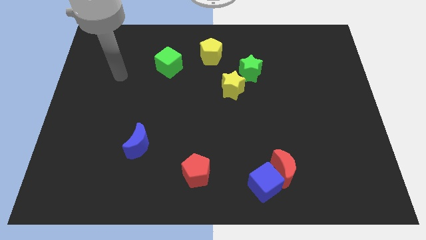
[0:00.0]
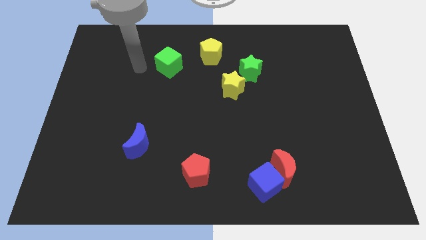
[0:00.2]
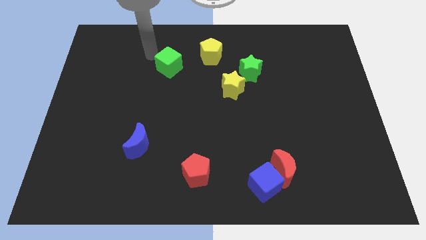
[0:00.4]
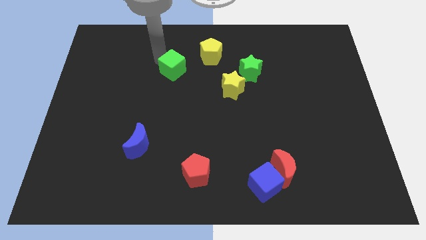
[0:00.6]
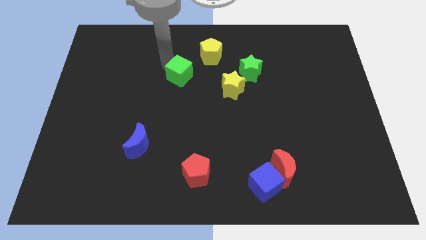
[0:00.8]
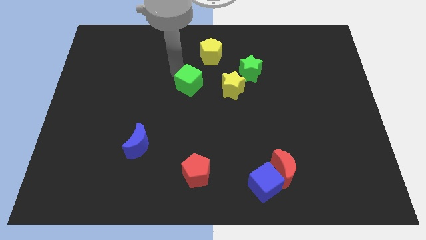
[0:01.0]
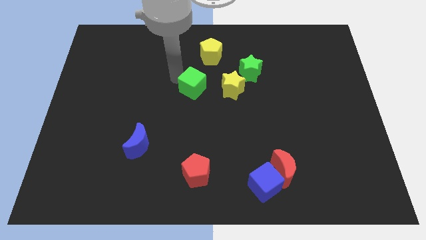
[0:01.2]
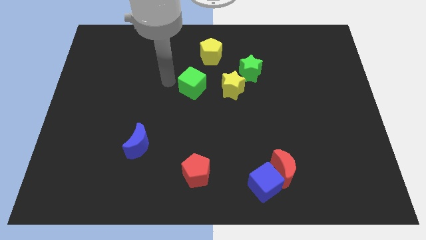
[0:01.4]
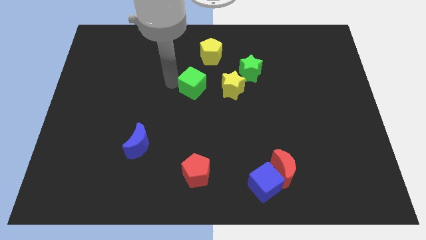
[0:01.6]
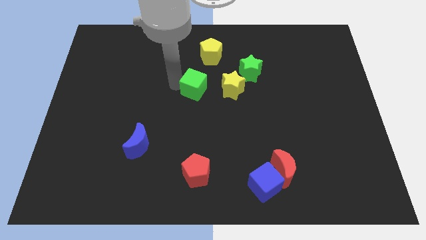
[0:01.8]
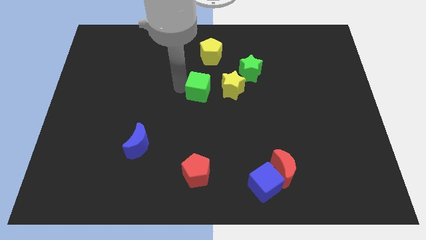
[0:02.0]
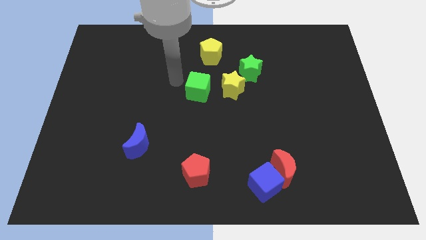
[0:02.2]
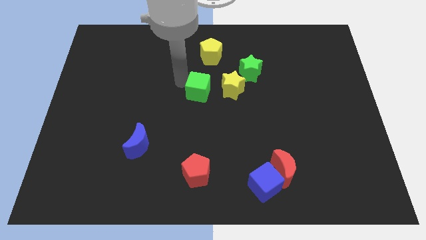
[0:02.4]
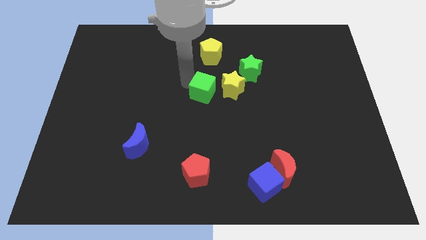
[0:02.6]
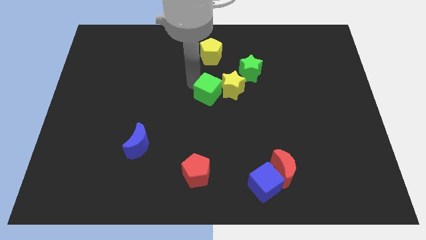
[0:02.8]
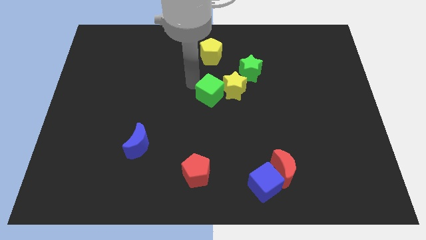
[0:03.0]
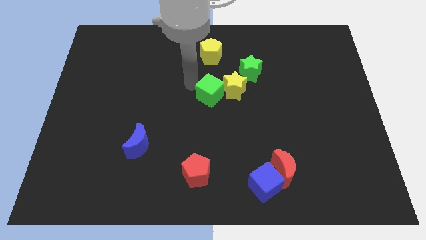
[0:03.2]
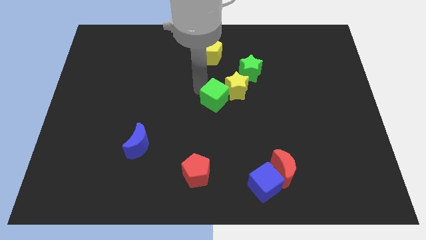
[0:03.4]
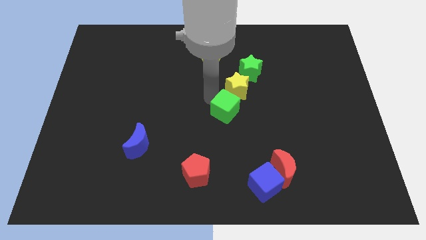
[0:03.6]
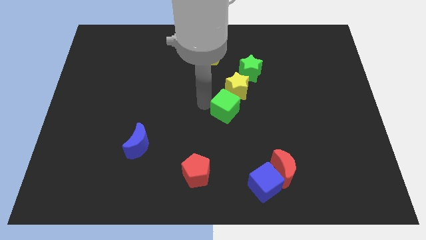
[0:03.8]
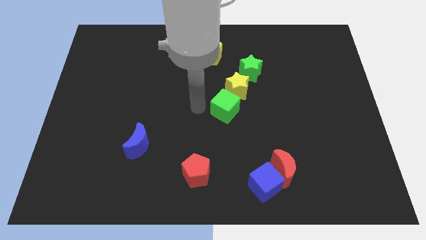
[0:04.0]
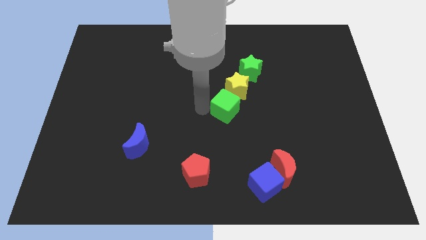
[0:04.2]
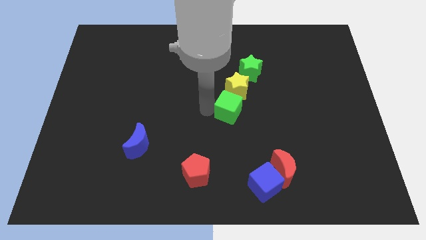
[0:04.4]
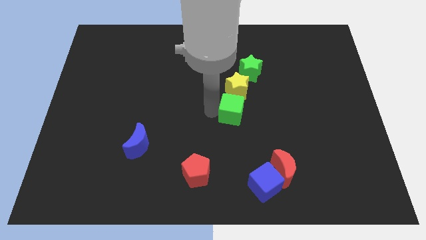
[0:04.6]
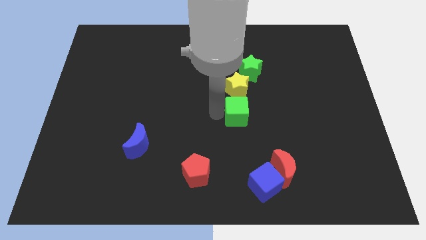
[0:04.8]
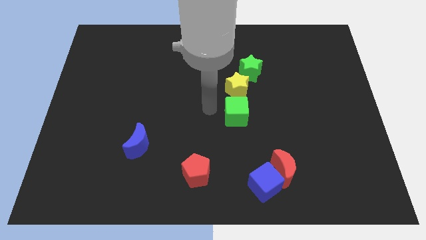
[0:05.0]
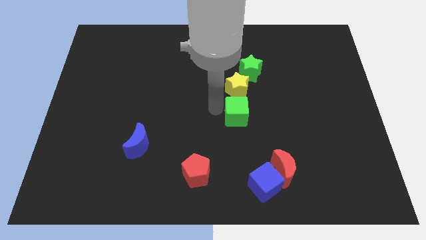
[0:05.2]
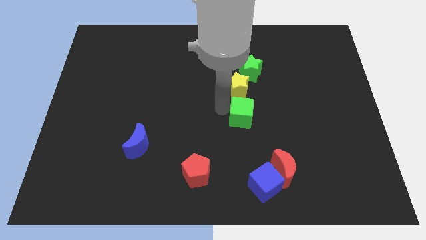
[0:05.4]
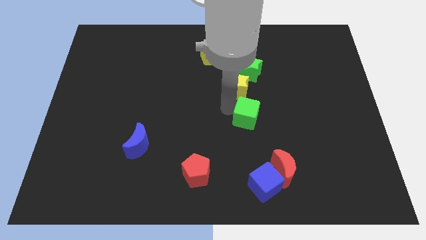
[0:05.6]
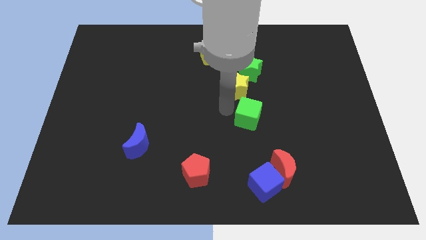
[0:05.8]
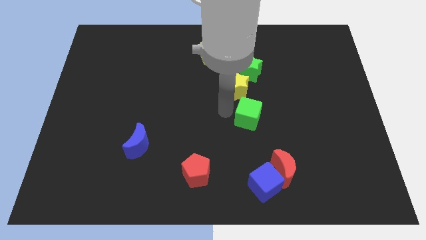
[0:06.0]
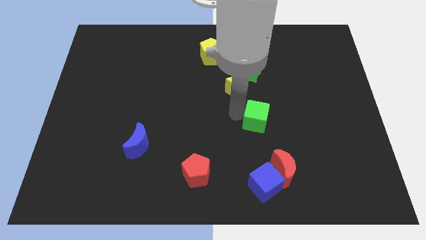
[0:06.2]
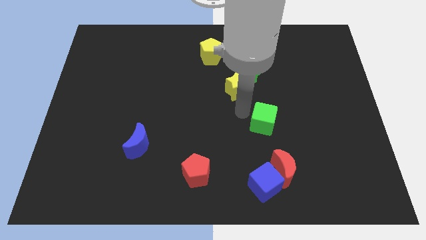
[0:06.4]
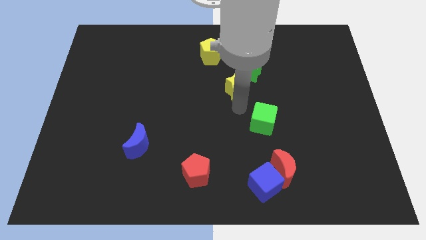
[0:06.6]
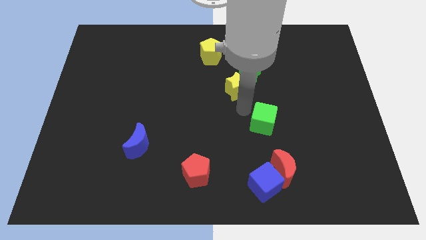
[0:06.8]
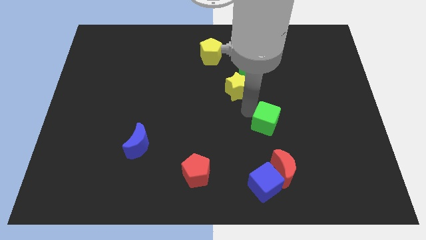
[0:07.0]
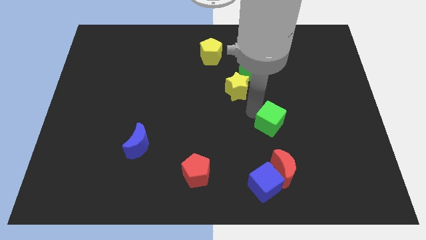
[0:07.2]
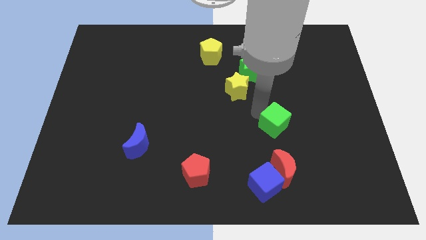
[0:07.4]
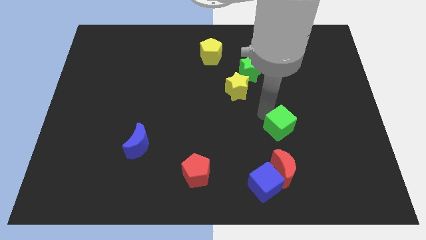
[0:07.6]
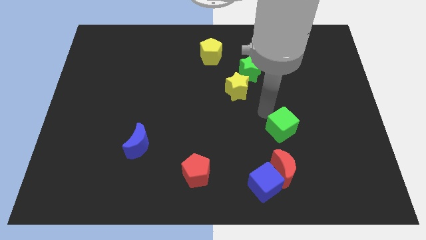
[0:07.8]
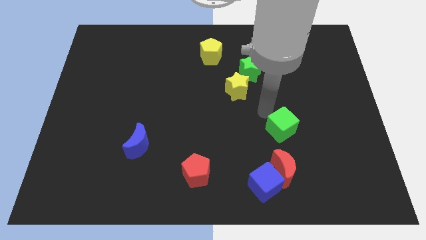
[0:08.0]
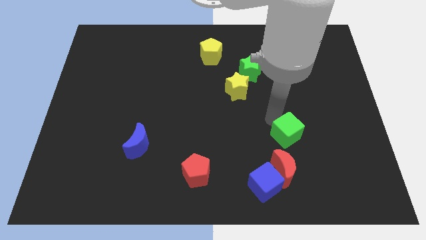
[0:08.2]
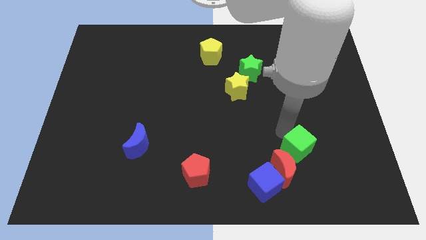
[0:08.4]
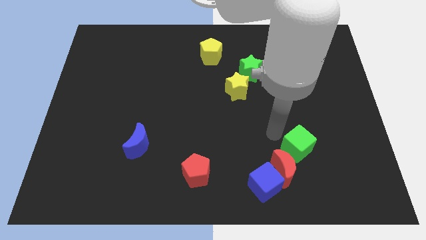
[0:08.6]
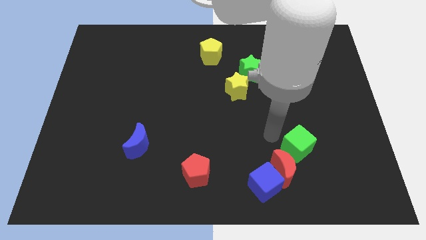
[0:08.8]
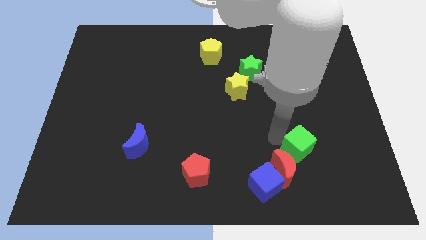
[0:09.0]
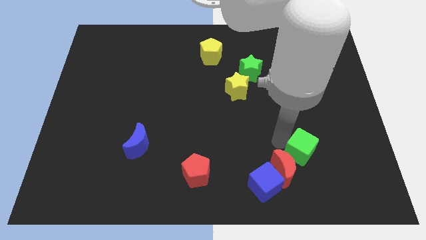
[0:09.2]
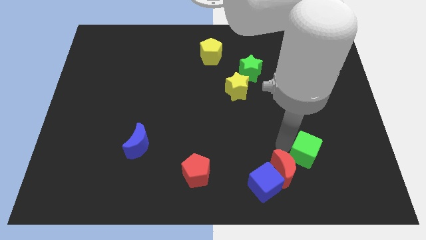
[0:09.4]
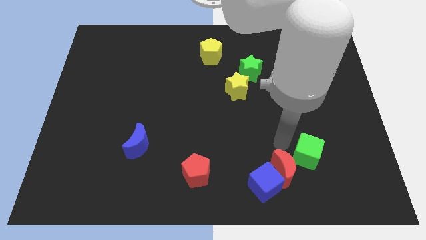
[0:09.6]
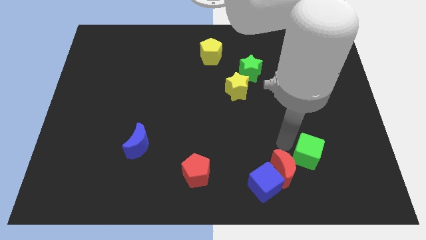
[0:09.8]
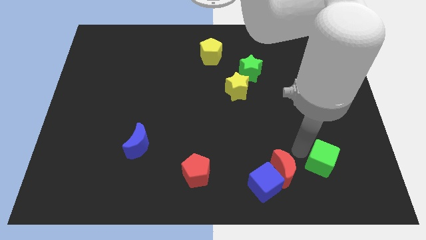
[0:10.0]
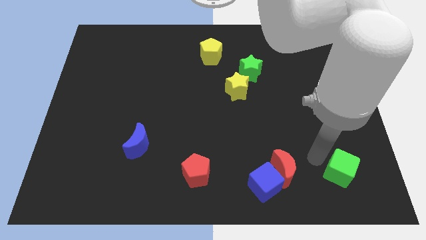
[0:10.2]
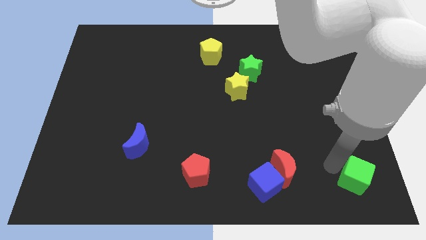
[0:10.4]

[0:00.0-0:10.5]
put the green cube to the bottom right of the board
